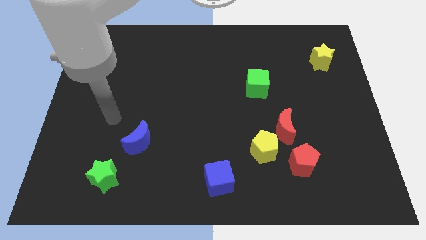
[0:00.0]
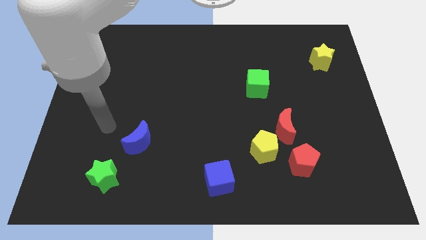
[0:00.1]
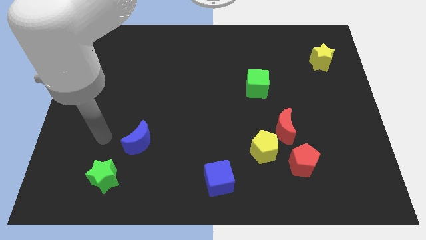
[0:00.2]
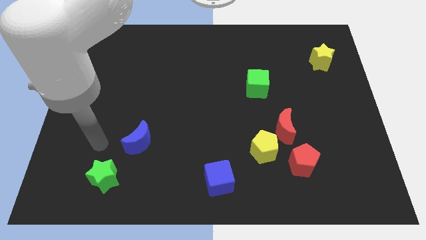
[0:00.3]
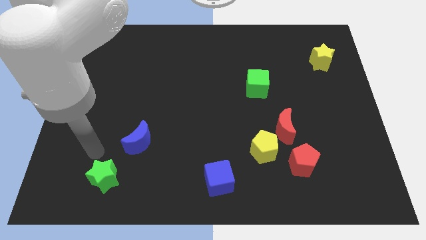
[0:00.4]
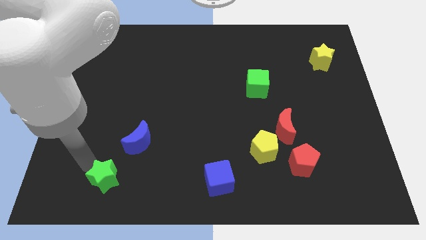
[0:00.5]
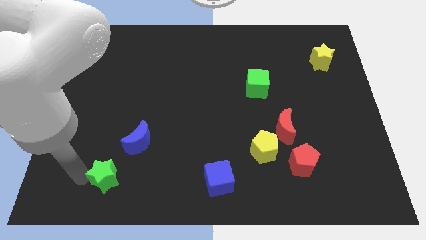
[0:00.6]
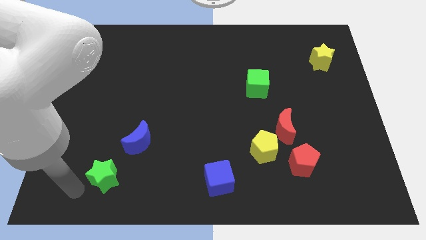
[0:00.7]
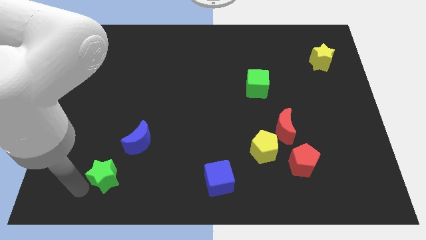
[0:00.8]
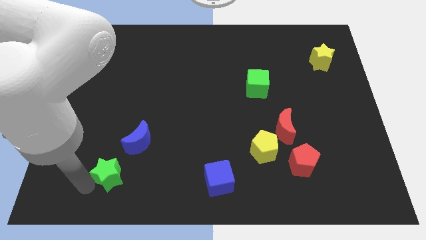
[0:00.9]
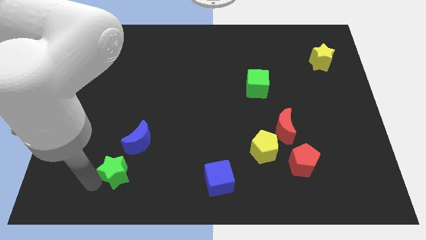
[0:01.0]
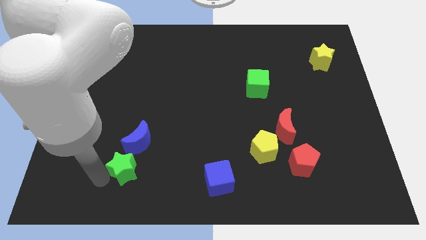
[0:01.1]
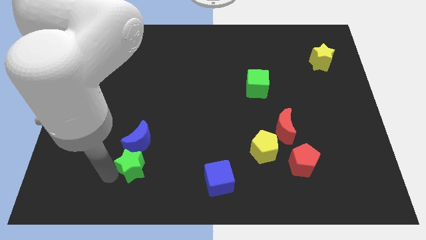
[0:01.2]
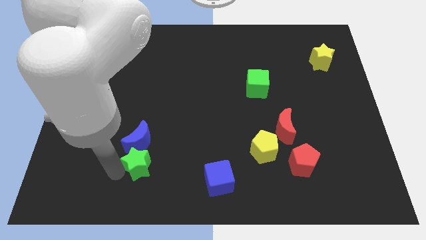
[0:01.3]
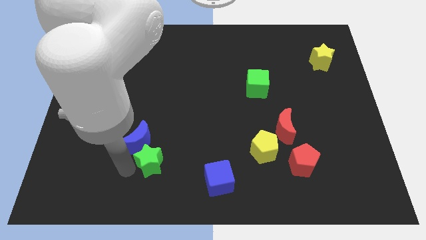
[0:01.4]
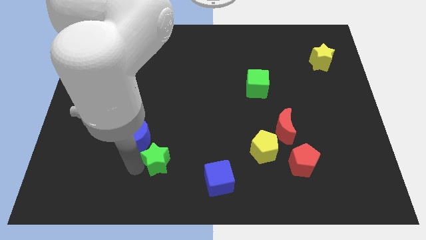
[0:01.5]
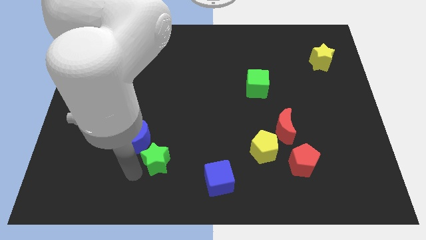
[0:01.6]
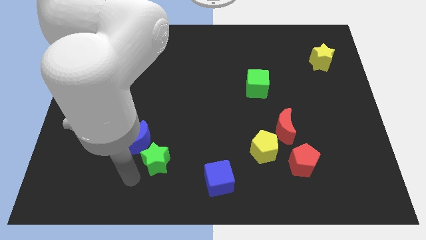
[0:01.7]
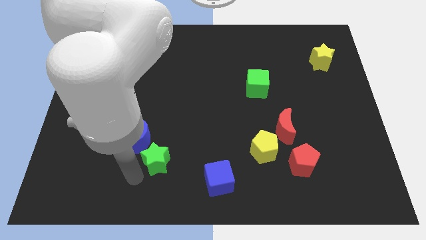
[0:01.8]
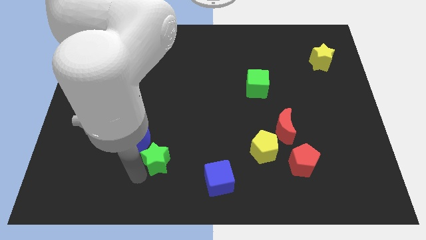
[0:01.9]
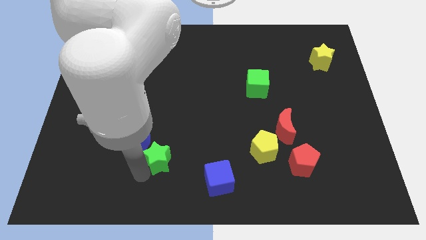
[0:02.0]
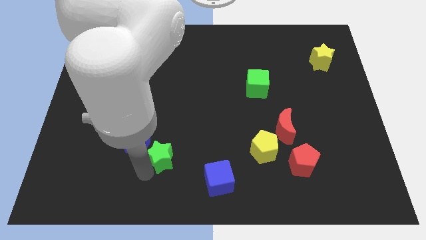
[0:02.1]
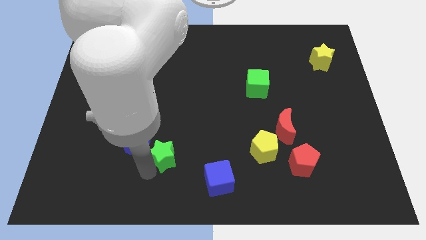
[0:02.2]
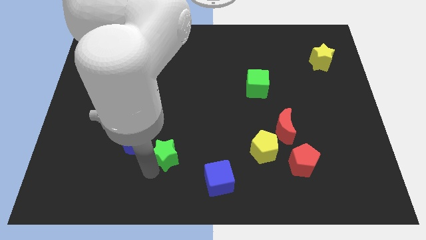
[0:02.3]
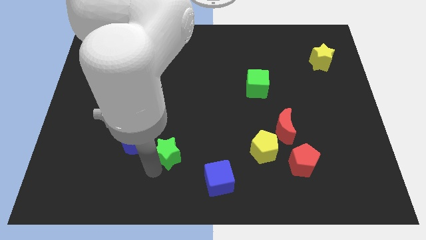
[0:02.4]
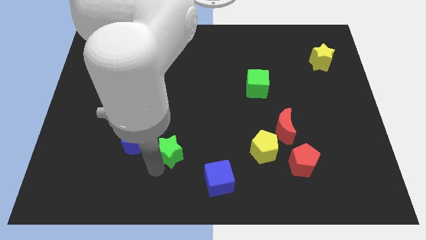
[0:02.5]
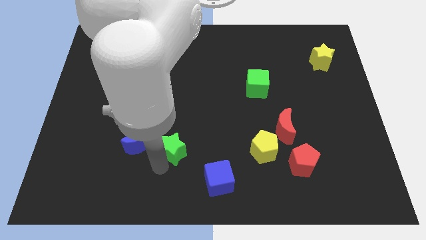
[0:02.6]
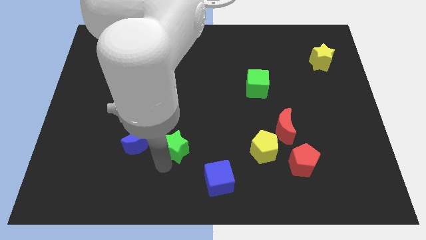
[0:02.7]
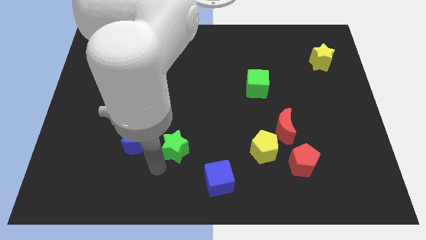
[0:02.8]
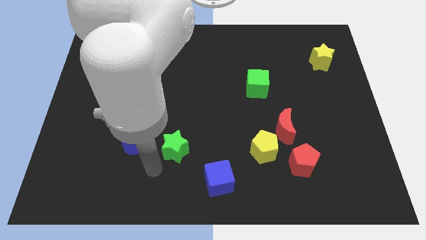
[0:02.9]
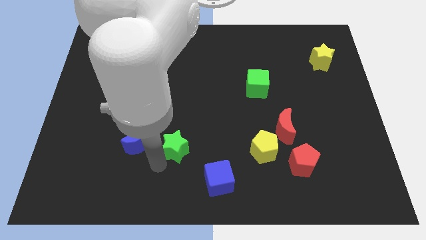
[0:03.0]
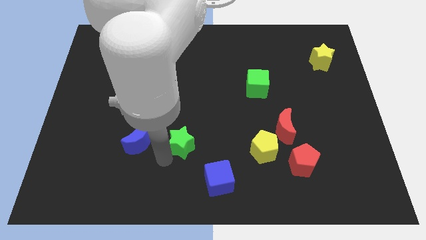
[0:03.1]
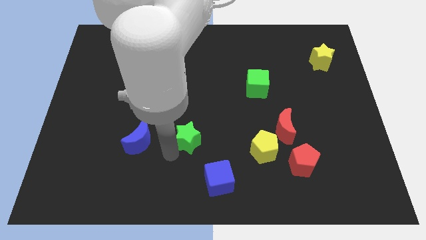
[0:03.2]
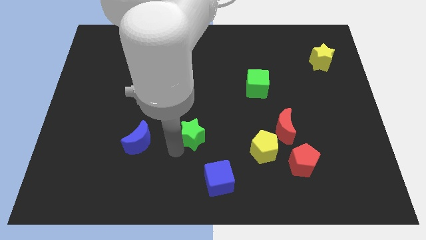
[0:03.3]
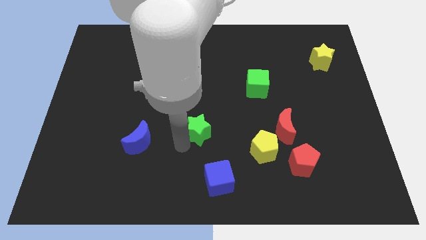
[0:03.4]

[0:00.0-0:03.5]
slide the green star up and to the right

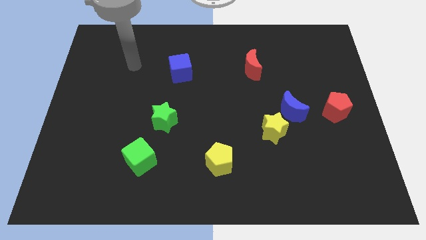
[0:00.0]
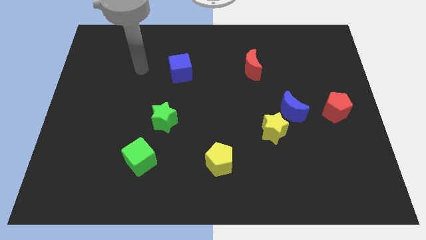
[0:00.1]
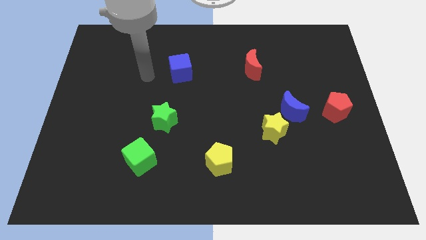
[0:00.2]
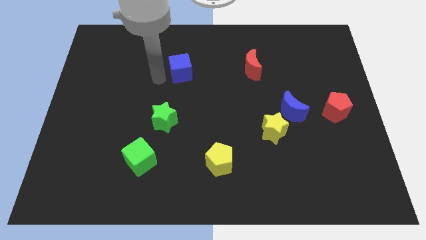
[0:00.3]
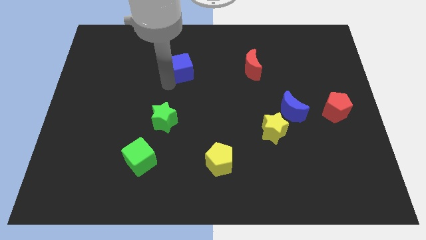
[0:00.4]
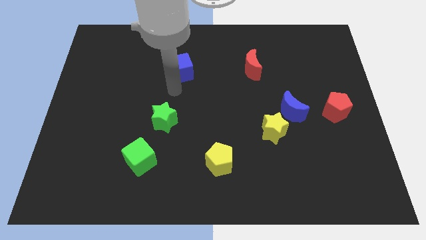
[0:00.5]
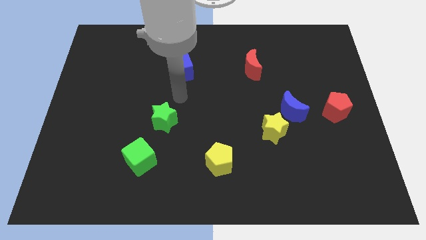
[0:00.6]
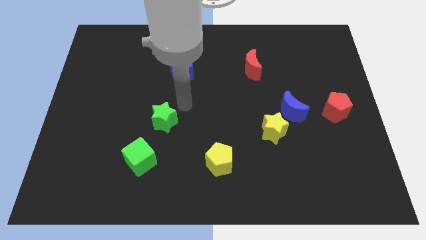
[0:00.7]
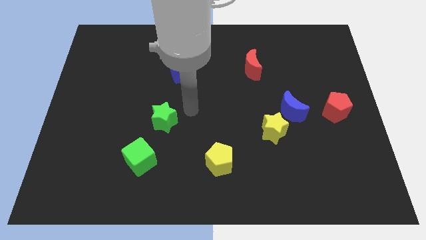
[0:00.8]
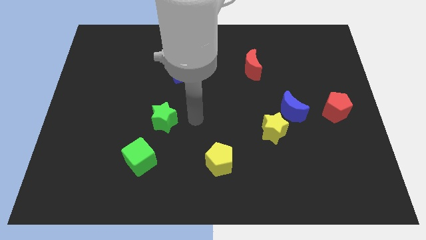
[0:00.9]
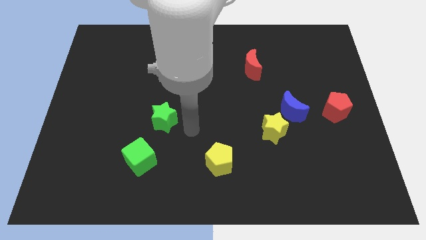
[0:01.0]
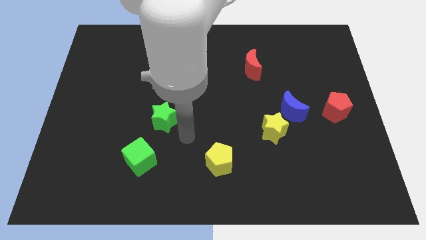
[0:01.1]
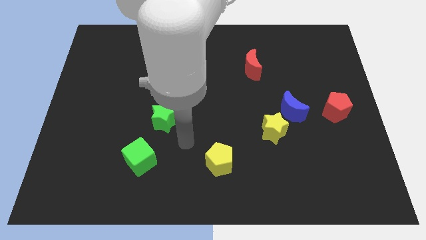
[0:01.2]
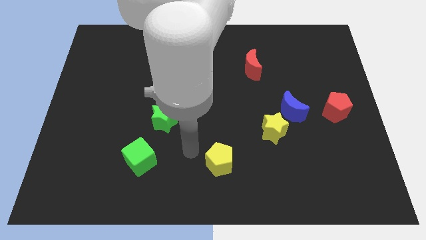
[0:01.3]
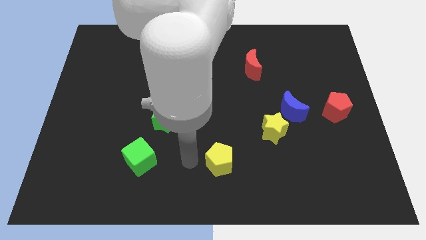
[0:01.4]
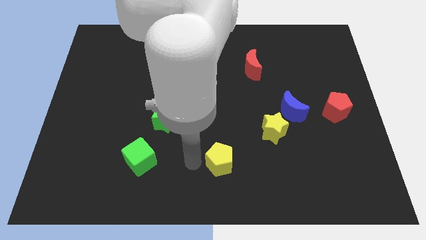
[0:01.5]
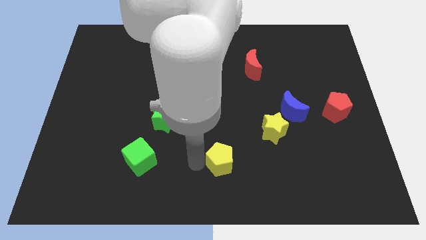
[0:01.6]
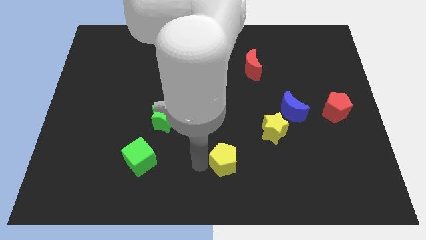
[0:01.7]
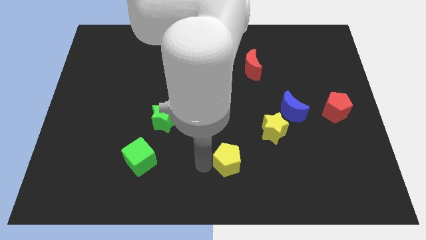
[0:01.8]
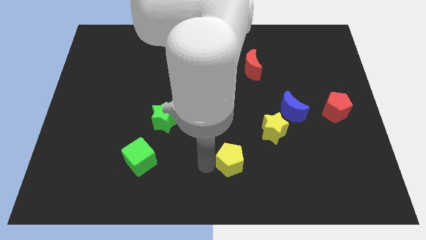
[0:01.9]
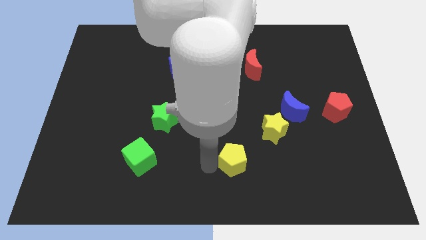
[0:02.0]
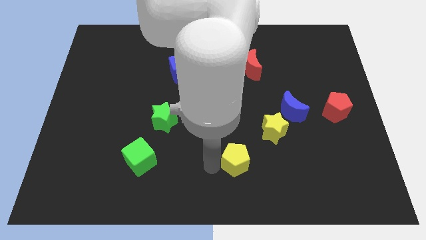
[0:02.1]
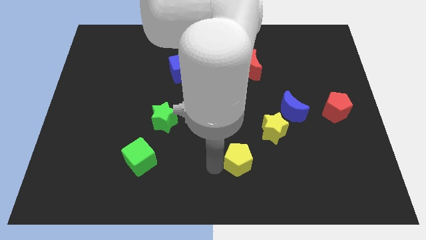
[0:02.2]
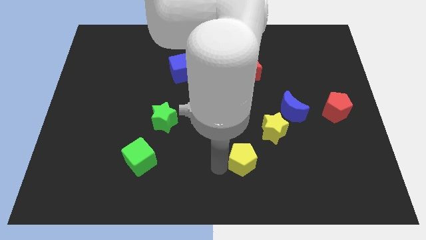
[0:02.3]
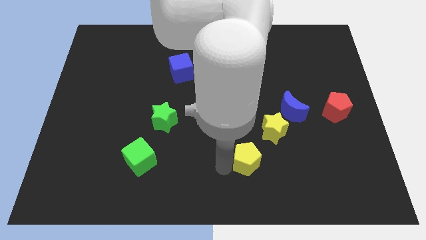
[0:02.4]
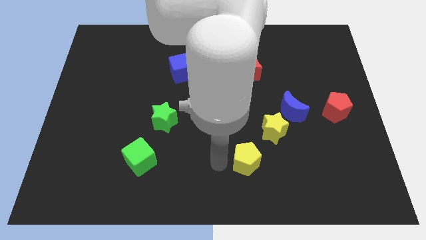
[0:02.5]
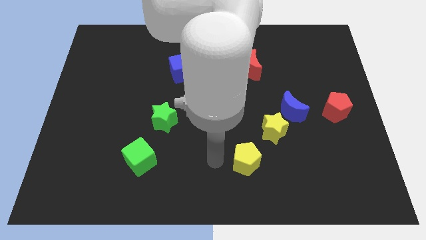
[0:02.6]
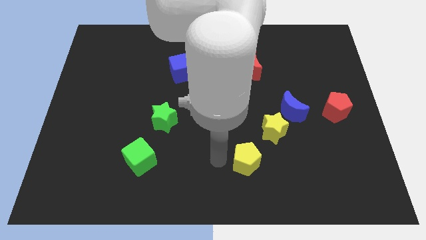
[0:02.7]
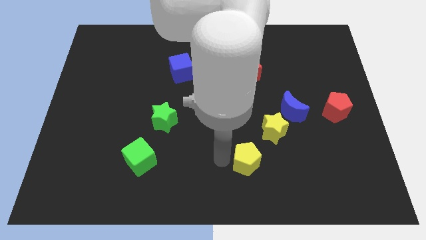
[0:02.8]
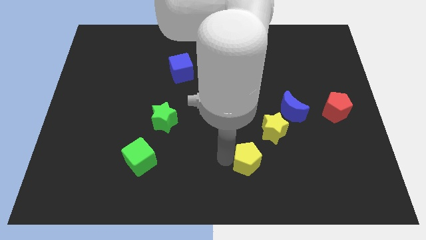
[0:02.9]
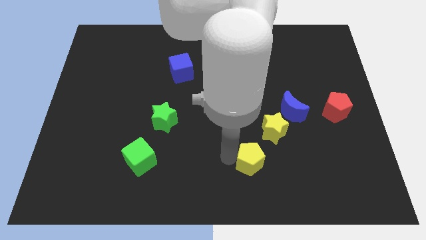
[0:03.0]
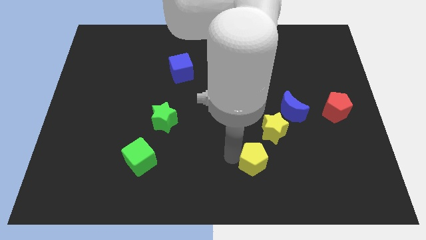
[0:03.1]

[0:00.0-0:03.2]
slightly slide the yellow pentagon to the right

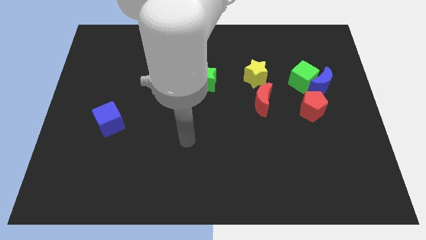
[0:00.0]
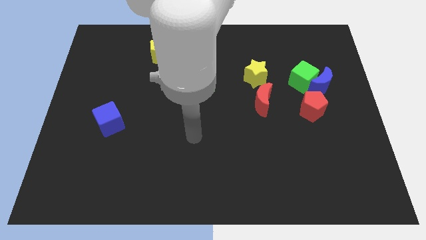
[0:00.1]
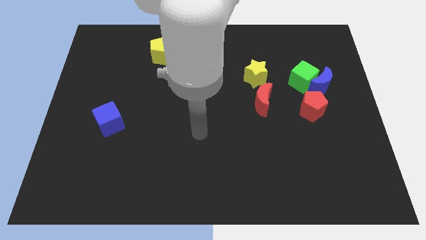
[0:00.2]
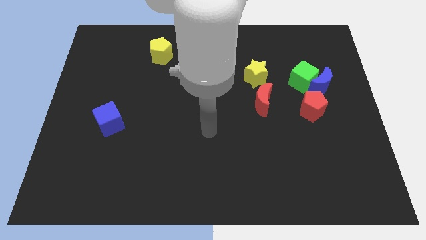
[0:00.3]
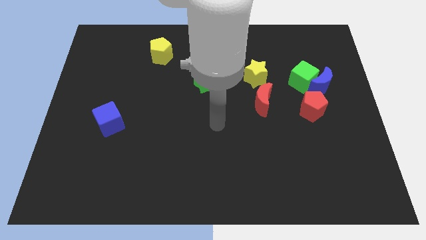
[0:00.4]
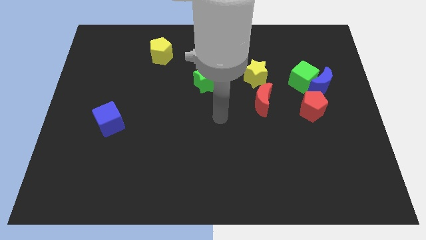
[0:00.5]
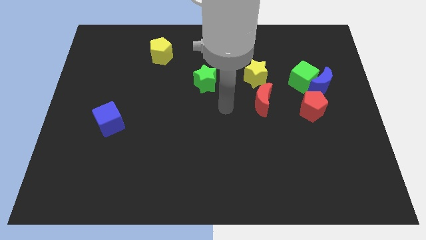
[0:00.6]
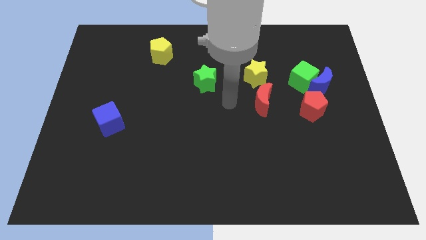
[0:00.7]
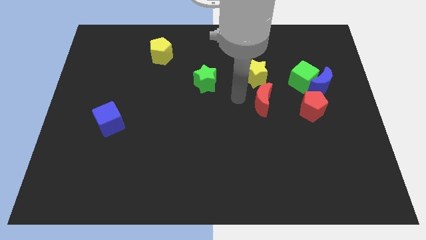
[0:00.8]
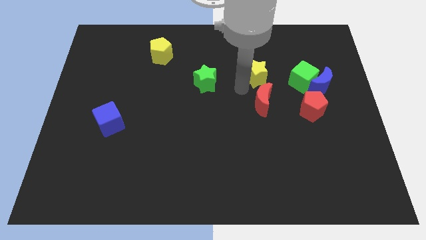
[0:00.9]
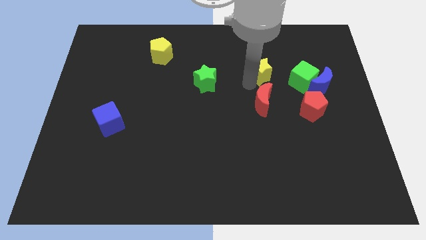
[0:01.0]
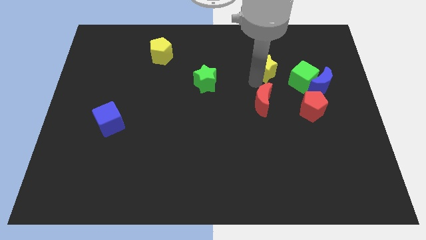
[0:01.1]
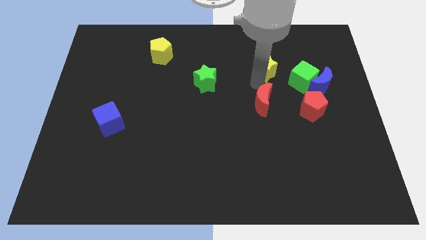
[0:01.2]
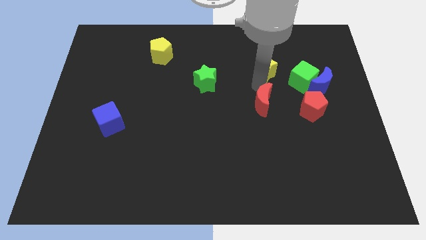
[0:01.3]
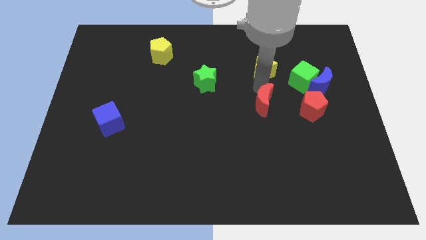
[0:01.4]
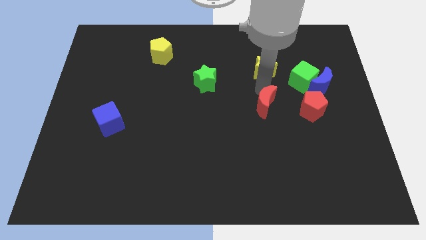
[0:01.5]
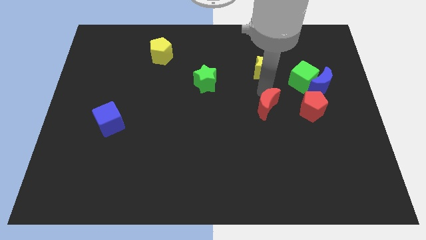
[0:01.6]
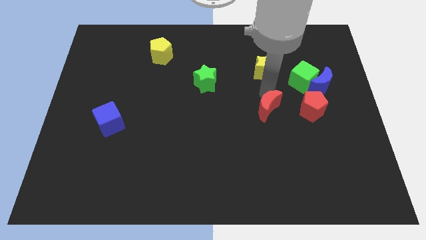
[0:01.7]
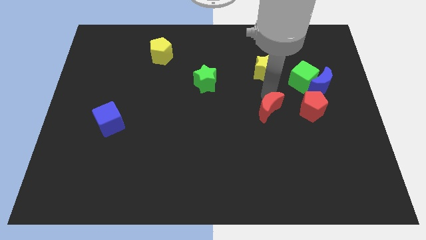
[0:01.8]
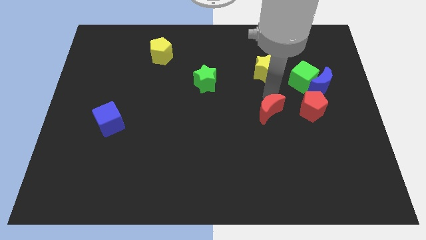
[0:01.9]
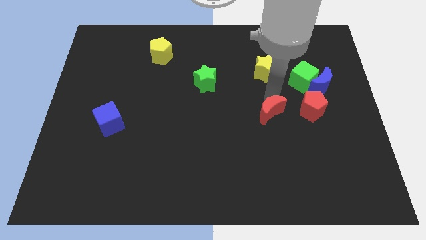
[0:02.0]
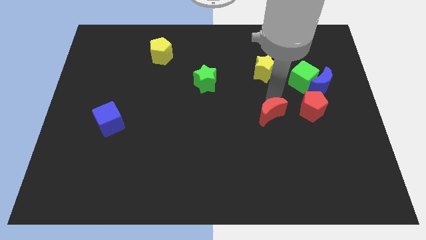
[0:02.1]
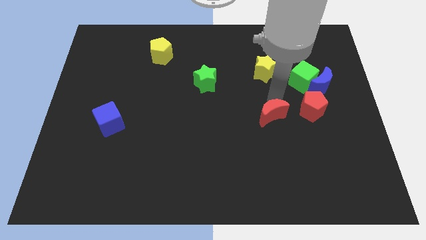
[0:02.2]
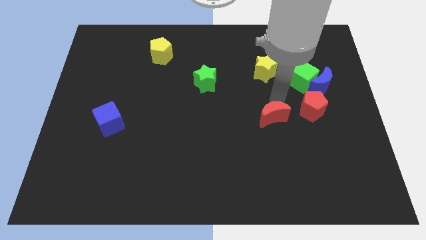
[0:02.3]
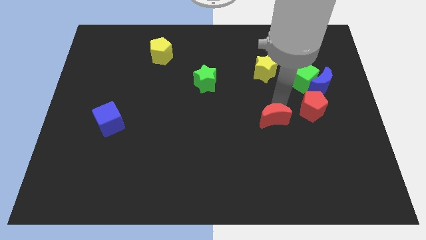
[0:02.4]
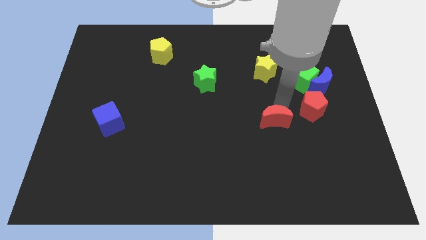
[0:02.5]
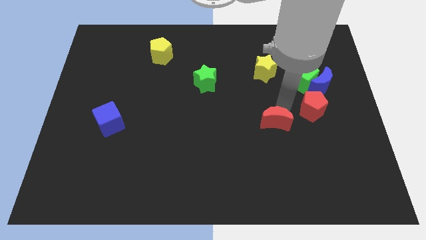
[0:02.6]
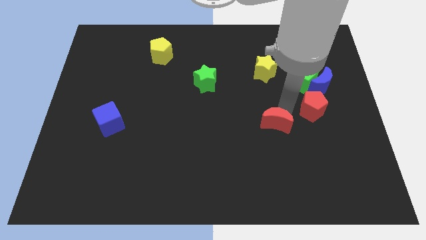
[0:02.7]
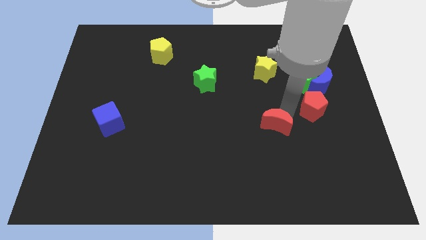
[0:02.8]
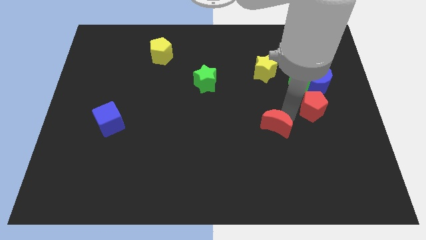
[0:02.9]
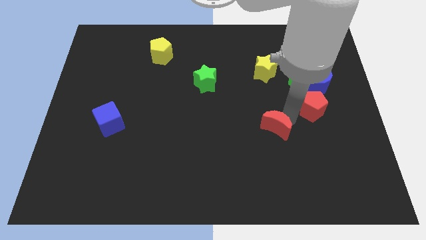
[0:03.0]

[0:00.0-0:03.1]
slightly push the red moon down
